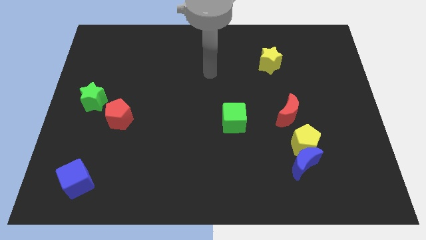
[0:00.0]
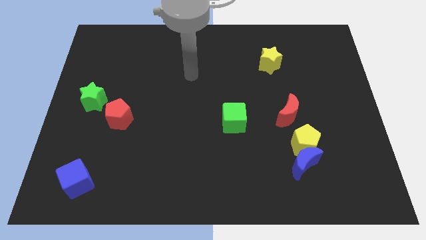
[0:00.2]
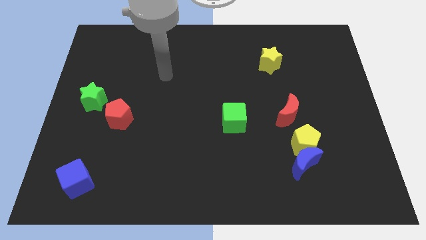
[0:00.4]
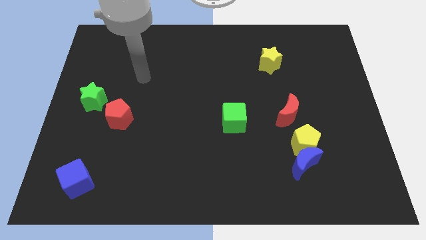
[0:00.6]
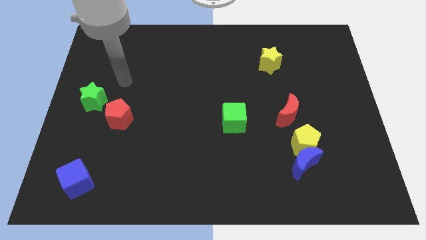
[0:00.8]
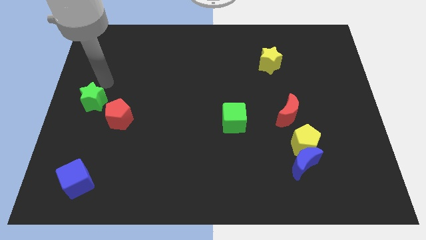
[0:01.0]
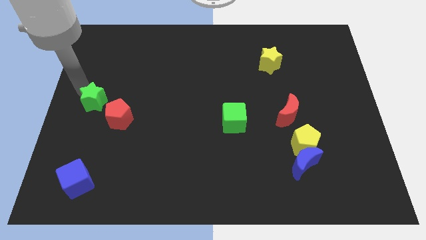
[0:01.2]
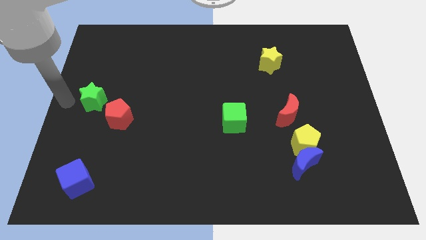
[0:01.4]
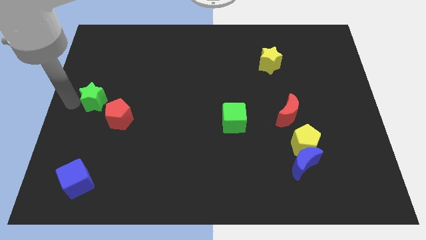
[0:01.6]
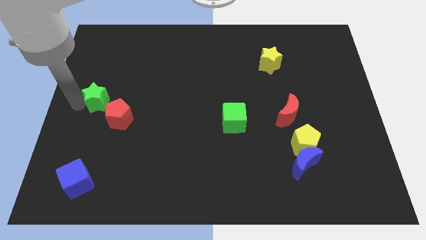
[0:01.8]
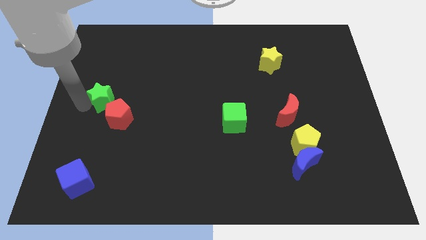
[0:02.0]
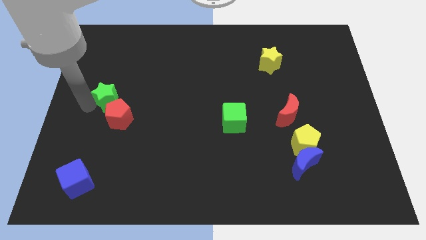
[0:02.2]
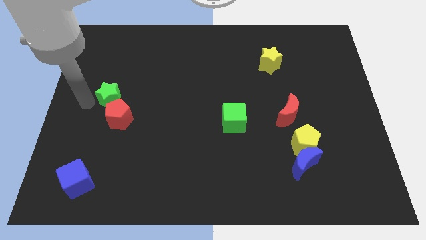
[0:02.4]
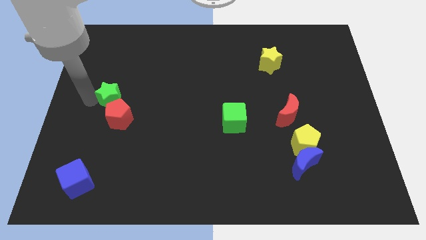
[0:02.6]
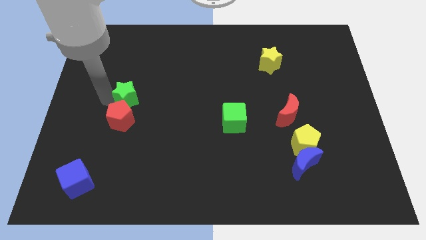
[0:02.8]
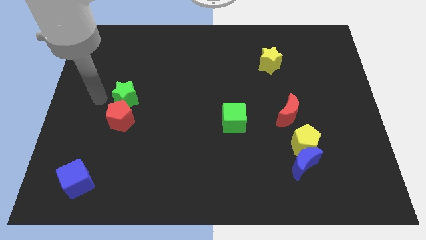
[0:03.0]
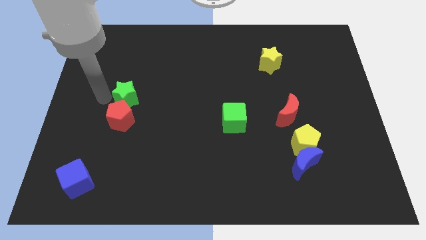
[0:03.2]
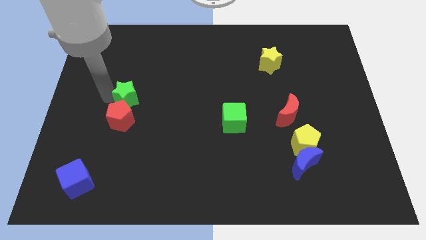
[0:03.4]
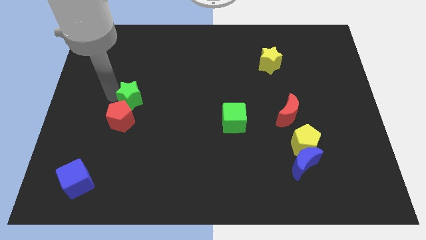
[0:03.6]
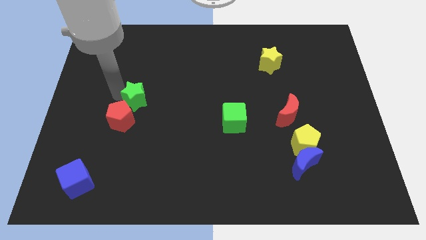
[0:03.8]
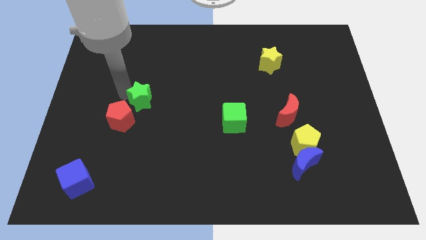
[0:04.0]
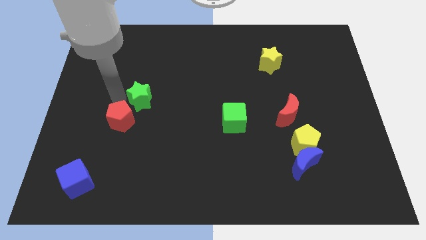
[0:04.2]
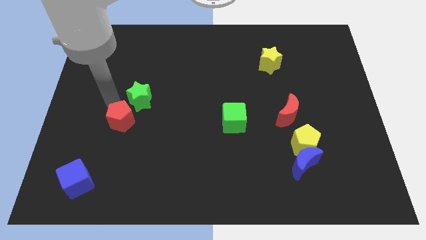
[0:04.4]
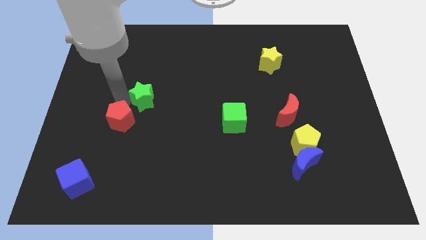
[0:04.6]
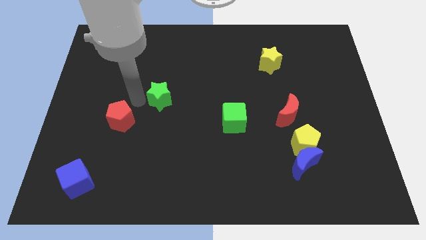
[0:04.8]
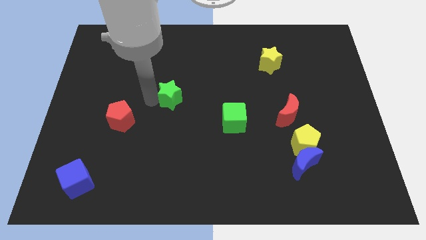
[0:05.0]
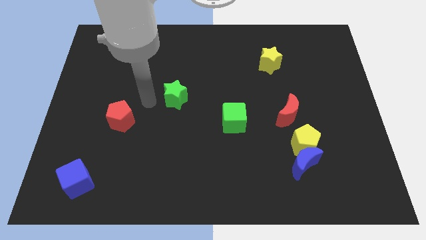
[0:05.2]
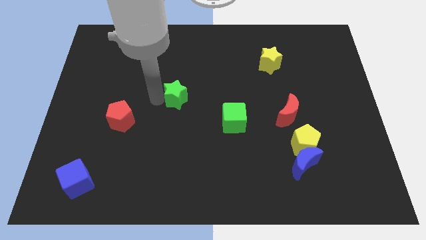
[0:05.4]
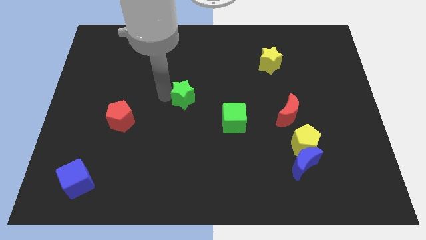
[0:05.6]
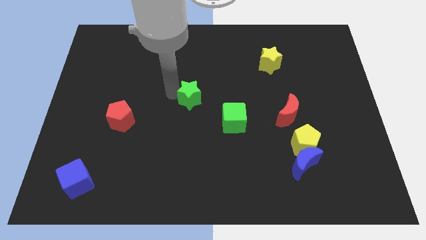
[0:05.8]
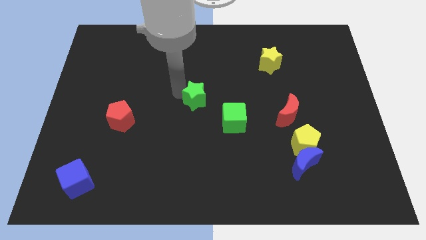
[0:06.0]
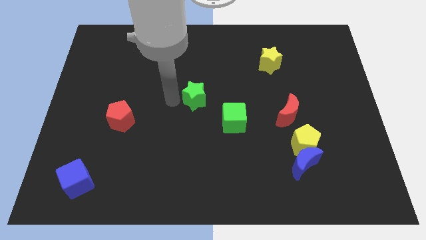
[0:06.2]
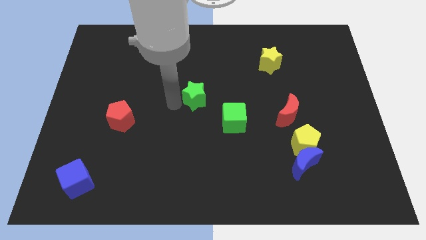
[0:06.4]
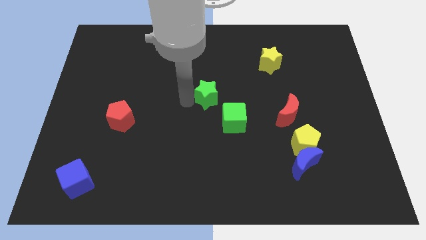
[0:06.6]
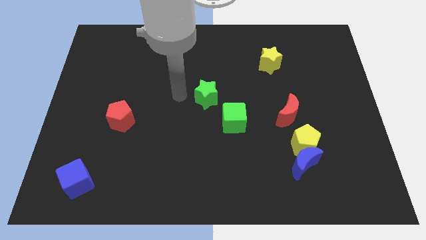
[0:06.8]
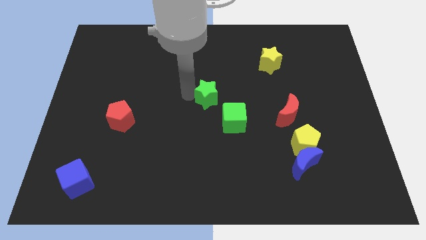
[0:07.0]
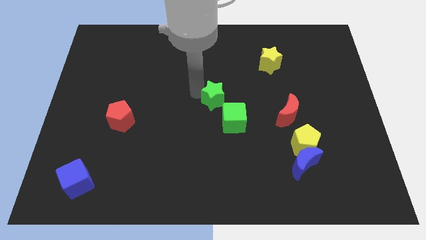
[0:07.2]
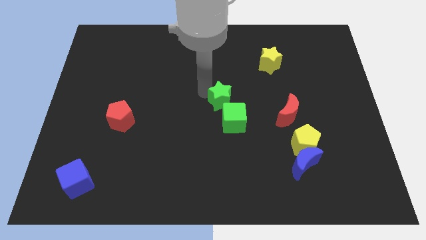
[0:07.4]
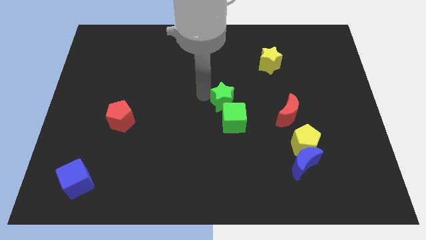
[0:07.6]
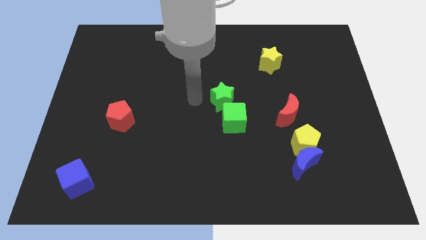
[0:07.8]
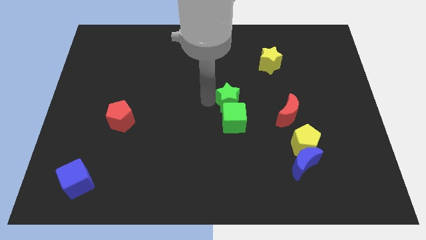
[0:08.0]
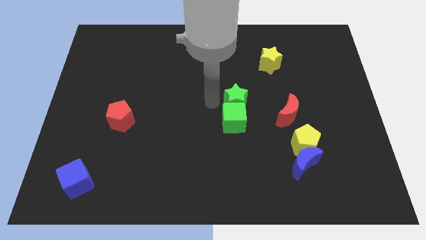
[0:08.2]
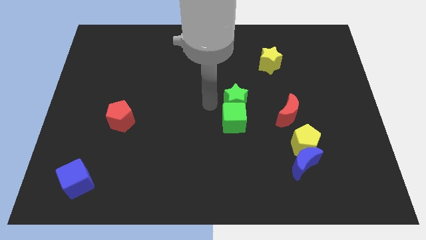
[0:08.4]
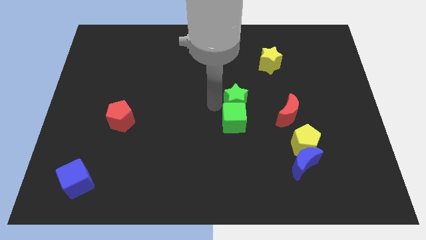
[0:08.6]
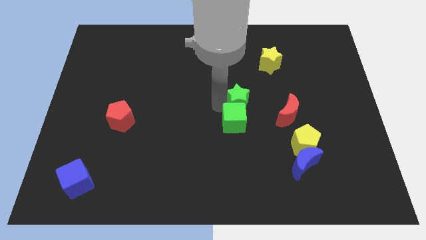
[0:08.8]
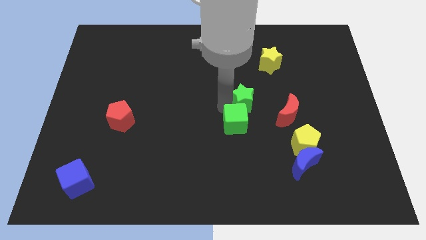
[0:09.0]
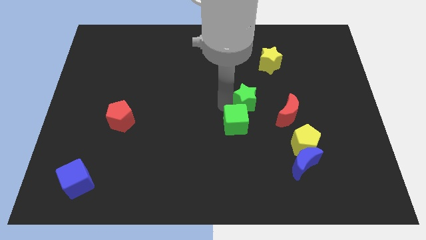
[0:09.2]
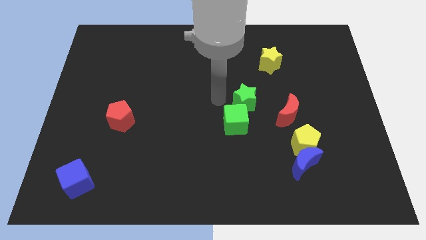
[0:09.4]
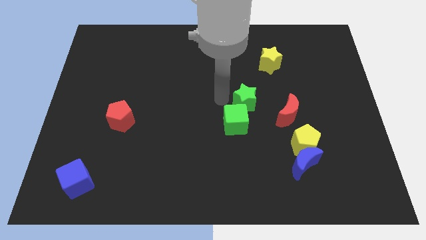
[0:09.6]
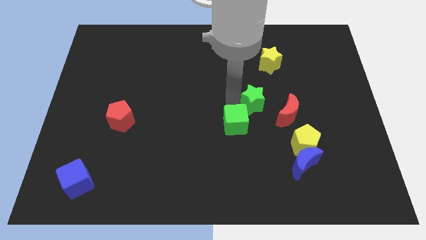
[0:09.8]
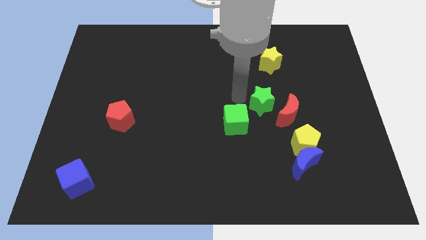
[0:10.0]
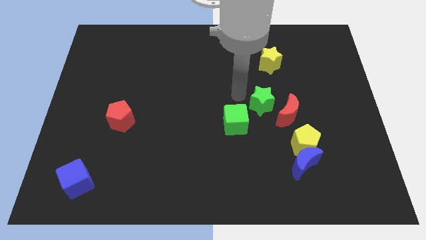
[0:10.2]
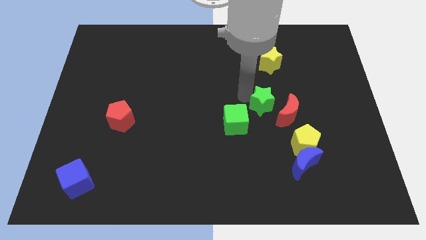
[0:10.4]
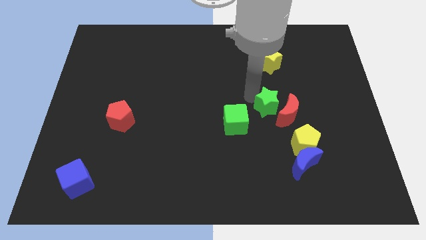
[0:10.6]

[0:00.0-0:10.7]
slide the green star to the red moon

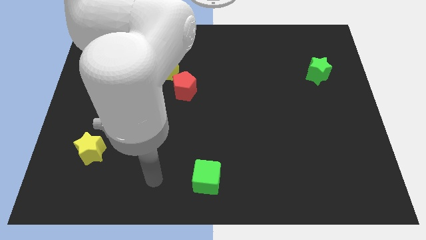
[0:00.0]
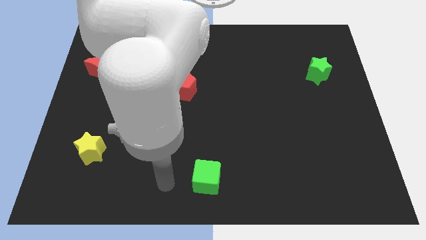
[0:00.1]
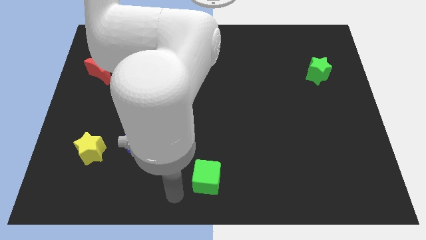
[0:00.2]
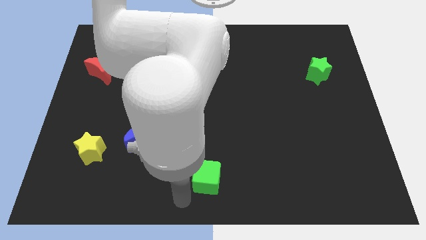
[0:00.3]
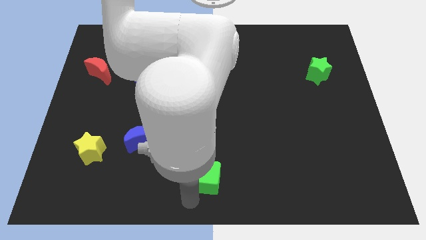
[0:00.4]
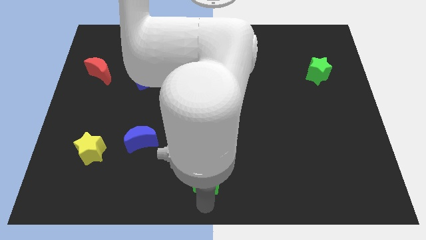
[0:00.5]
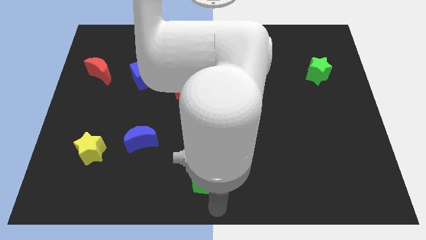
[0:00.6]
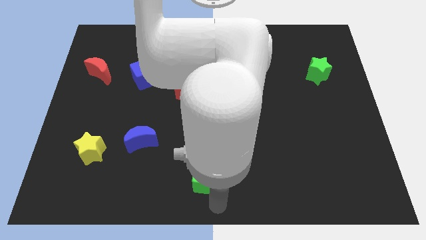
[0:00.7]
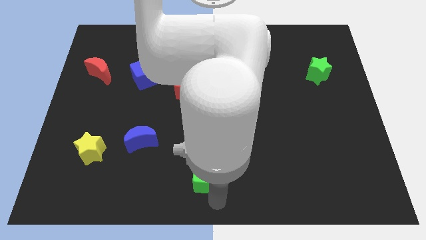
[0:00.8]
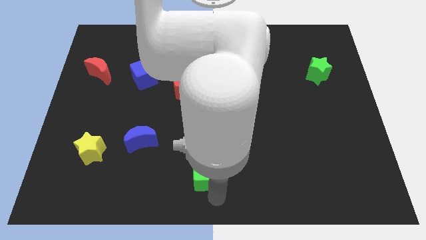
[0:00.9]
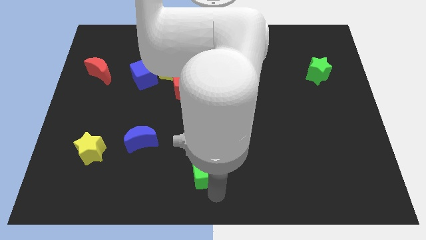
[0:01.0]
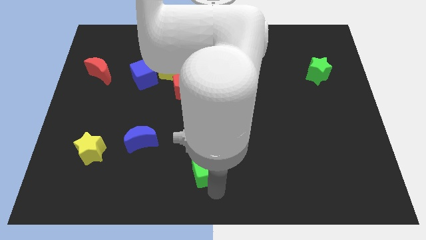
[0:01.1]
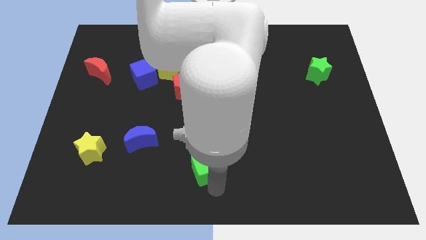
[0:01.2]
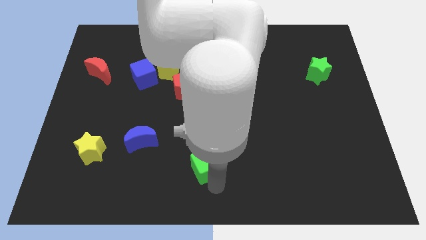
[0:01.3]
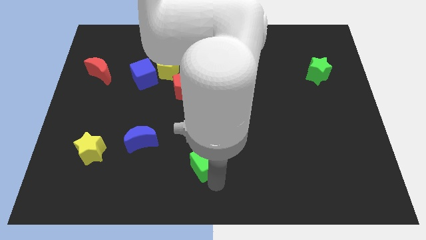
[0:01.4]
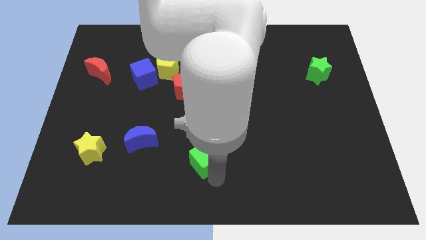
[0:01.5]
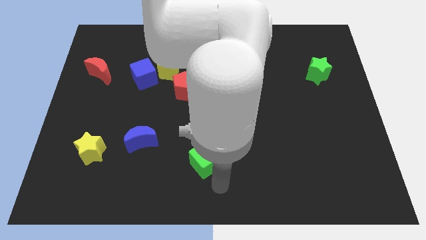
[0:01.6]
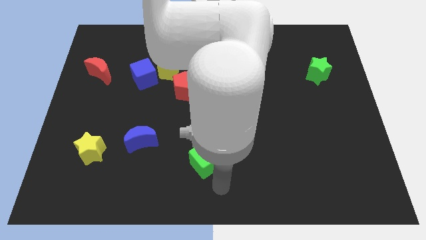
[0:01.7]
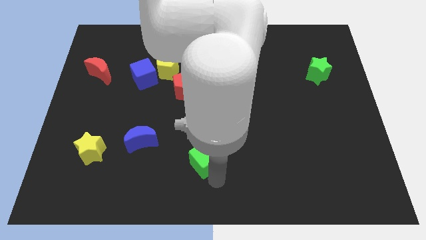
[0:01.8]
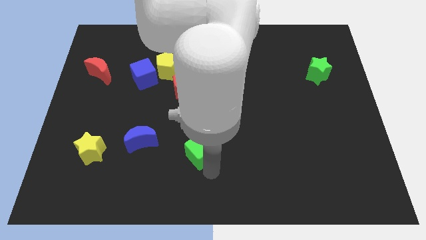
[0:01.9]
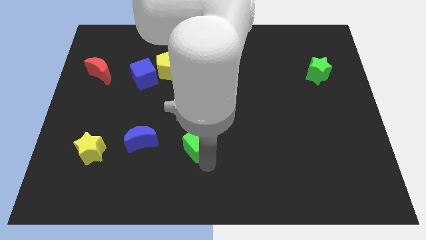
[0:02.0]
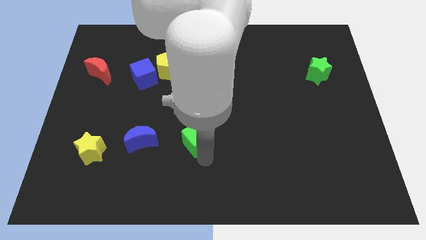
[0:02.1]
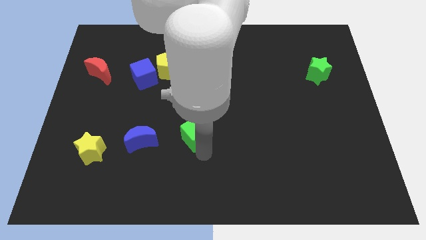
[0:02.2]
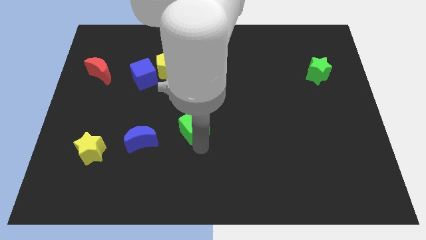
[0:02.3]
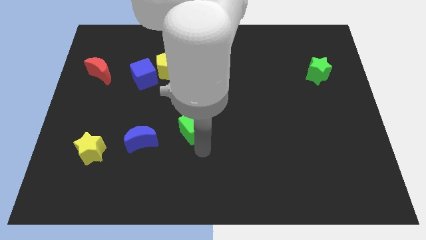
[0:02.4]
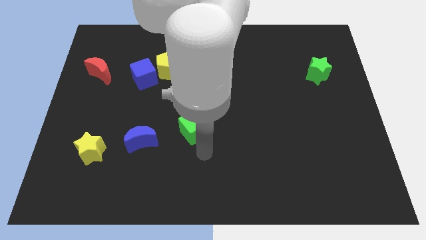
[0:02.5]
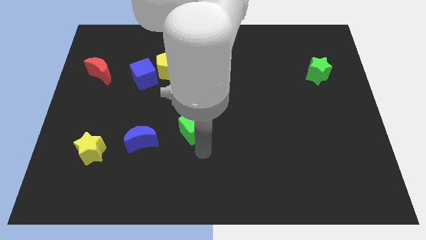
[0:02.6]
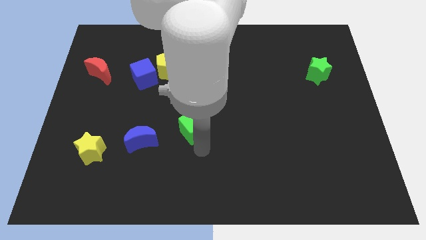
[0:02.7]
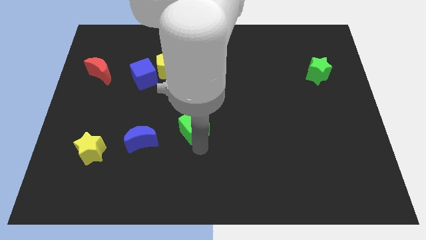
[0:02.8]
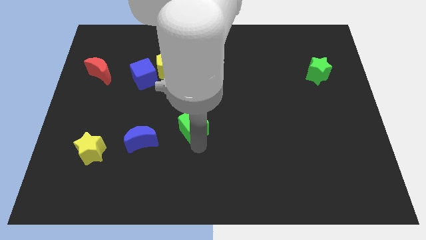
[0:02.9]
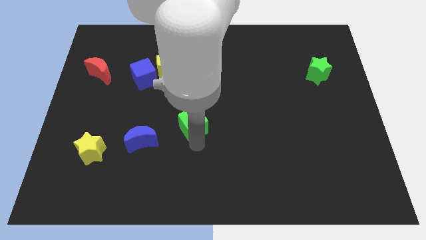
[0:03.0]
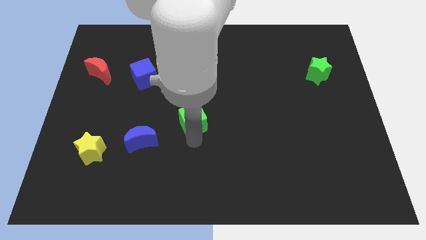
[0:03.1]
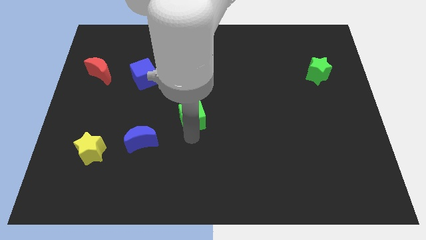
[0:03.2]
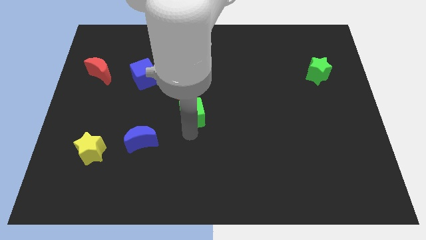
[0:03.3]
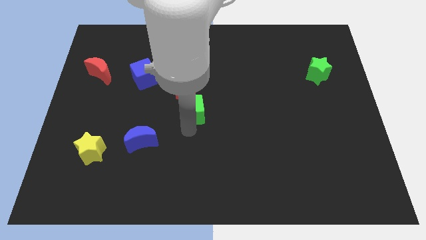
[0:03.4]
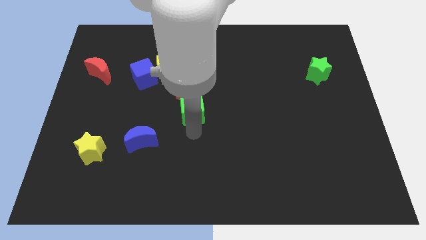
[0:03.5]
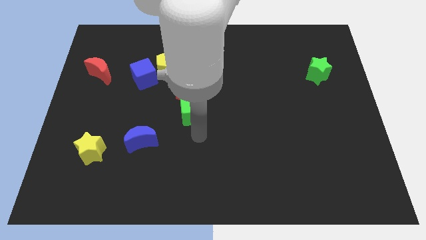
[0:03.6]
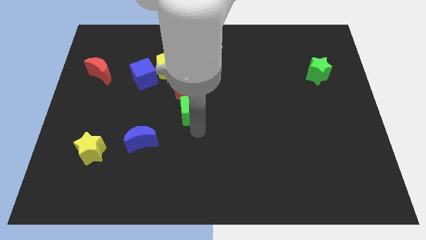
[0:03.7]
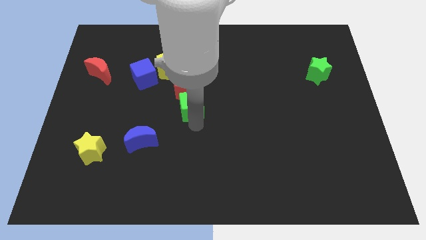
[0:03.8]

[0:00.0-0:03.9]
push the green cube towards the red pentagon
